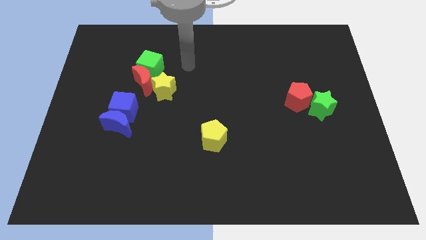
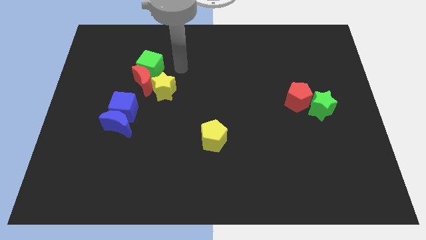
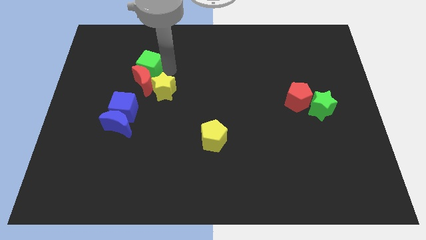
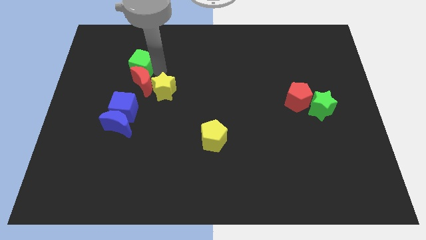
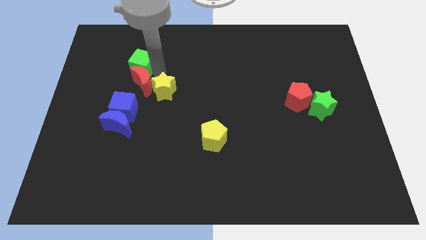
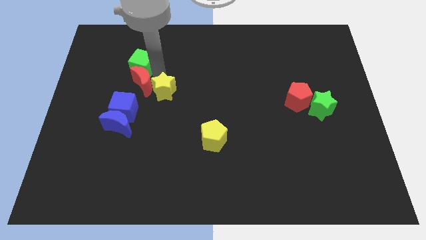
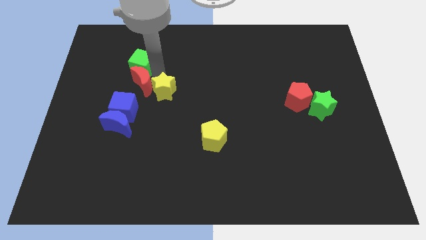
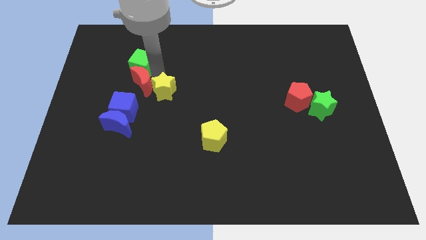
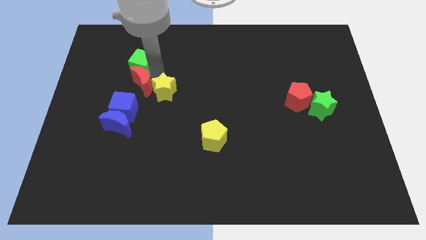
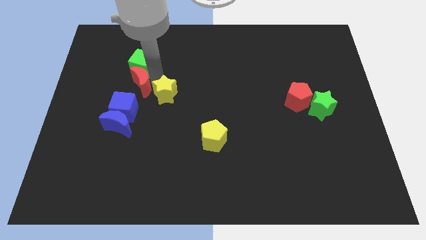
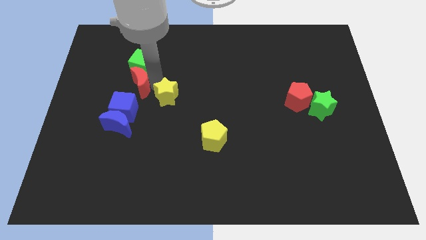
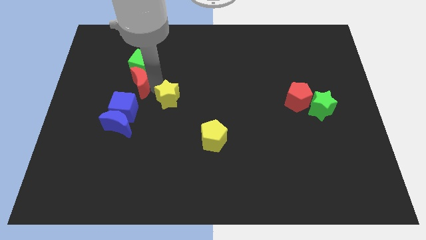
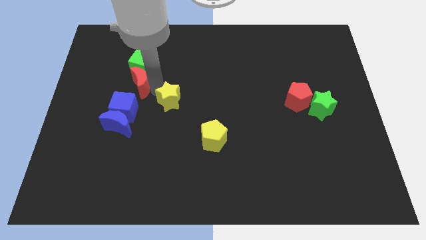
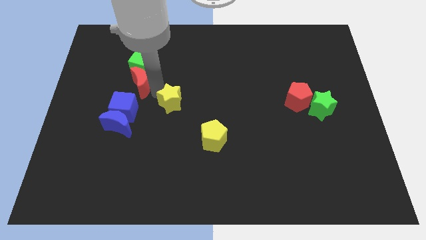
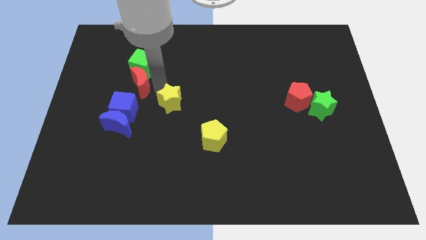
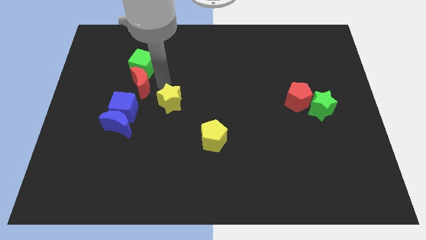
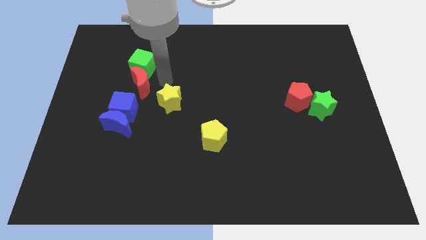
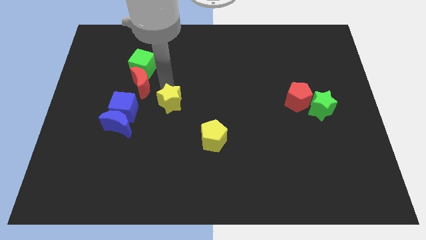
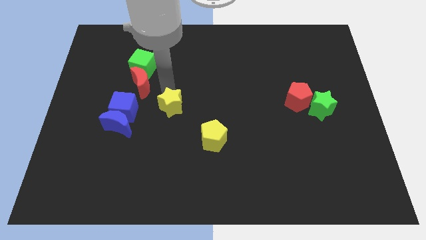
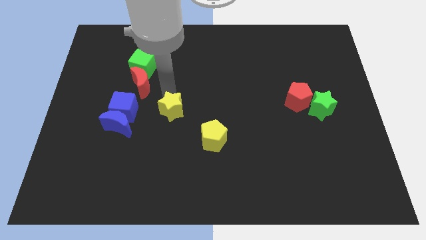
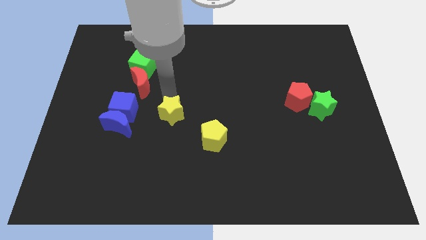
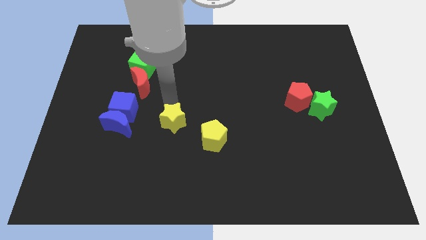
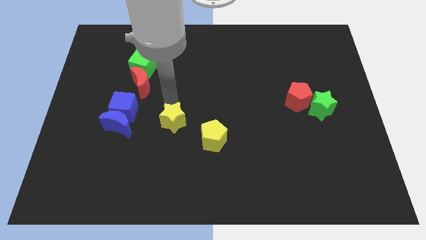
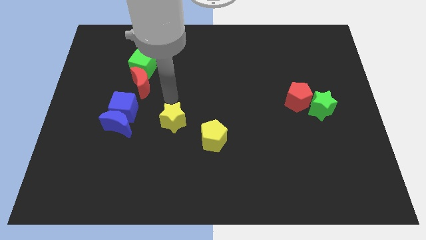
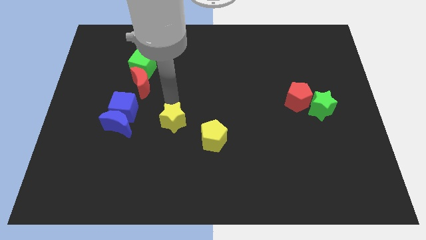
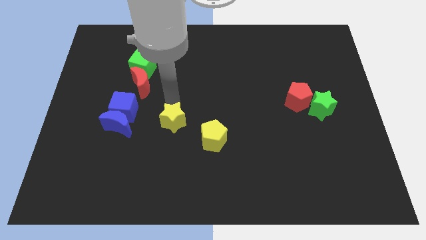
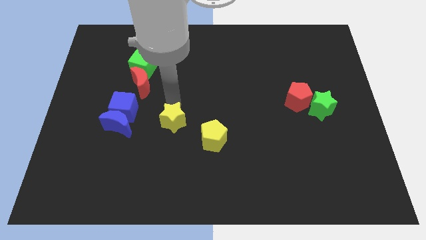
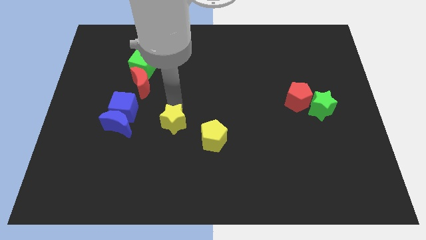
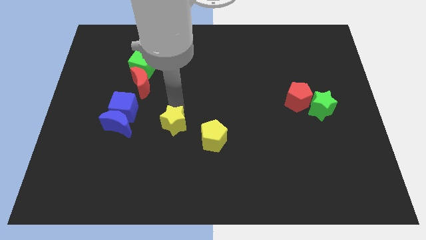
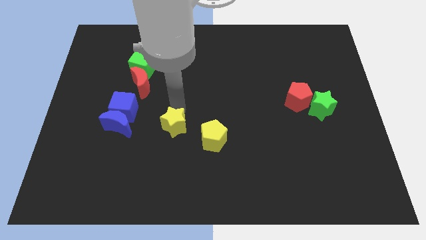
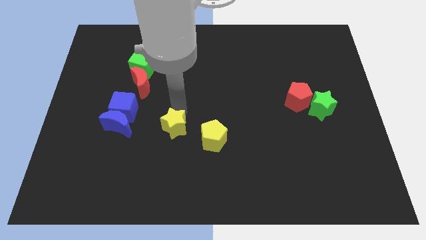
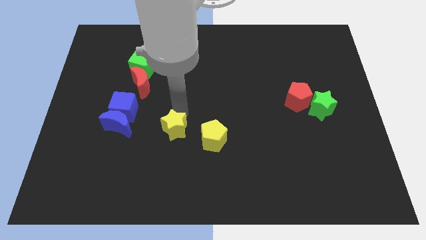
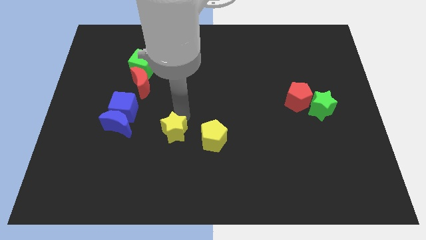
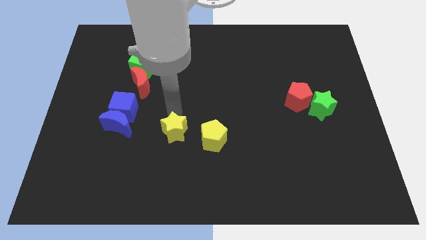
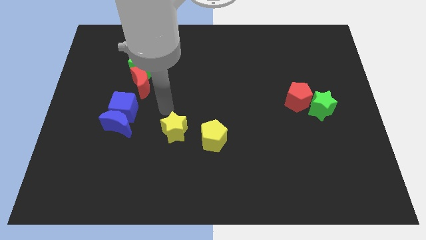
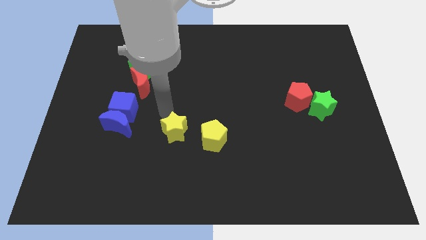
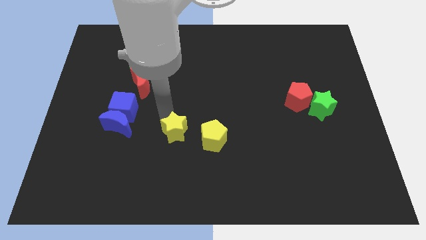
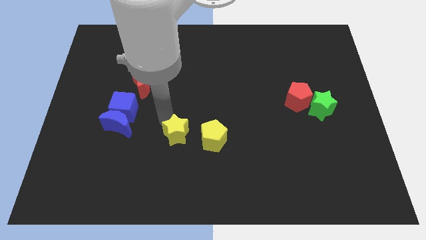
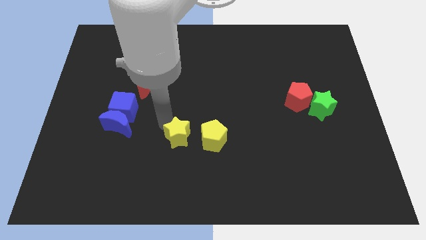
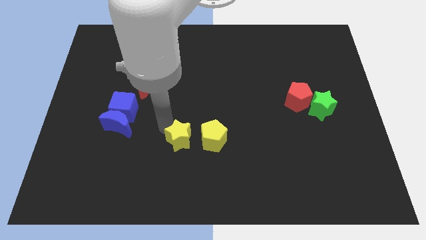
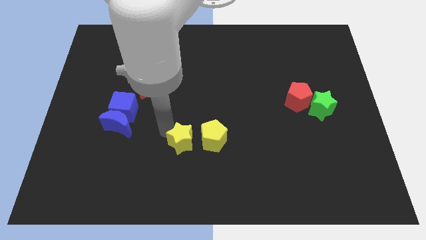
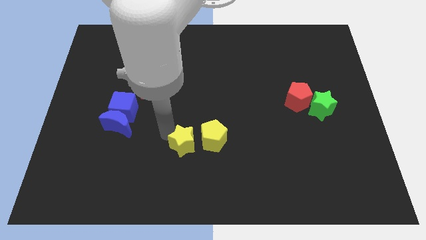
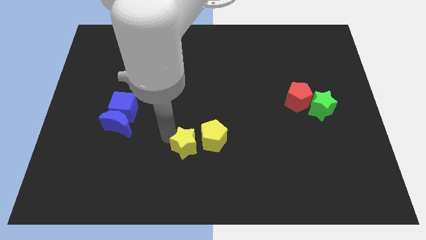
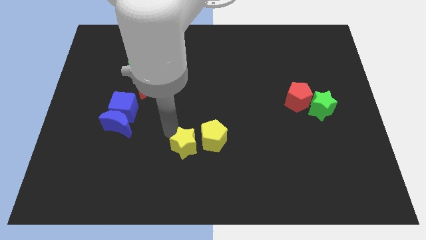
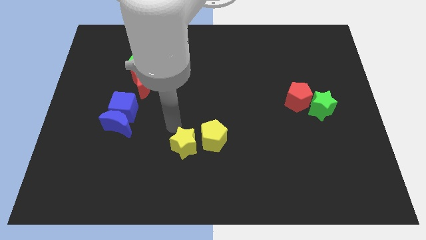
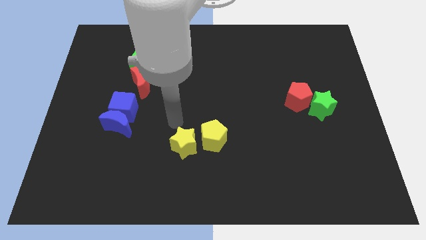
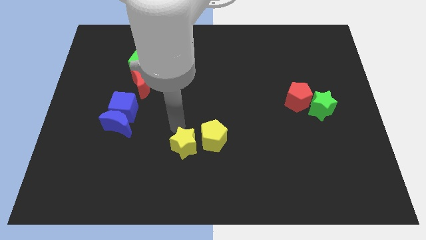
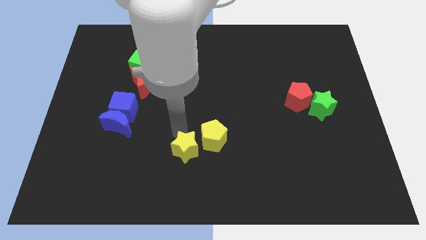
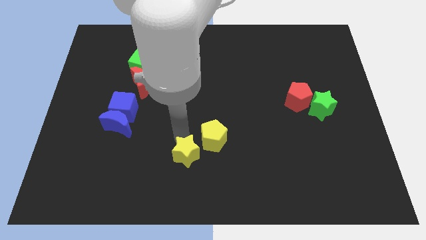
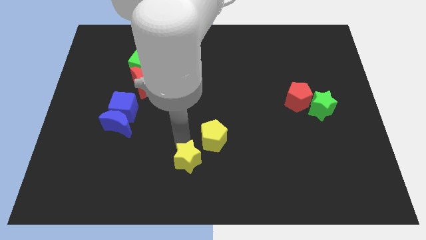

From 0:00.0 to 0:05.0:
put the yellow star to the bottom side
